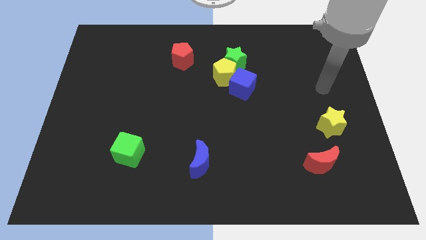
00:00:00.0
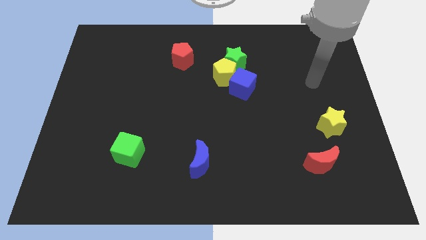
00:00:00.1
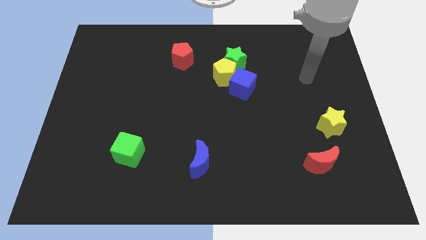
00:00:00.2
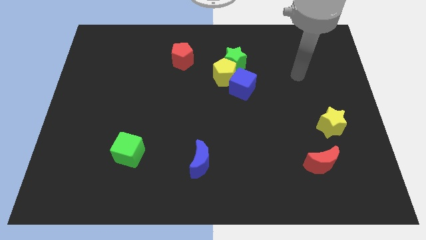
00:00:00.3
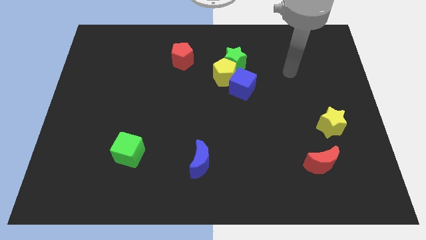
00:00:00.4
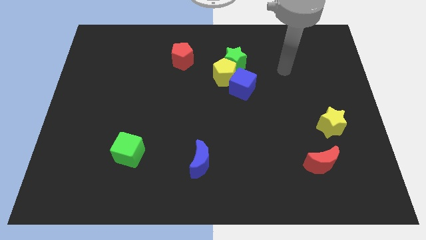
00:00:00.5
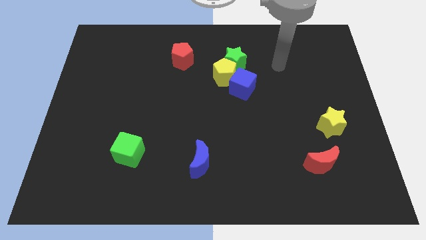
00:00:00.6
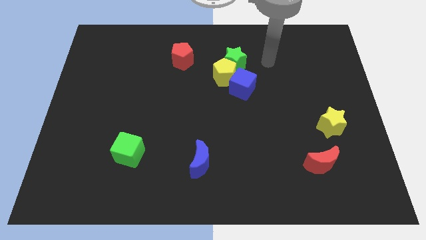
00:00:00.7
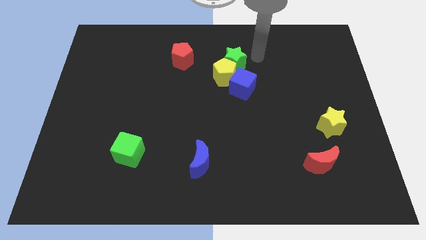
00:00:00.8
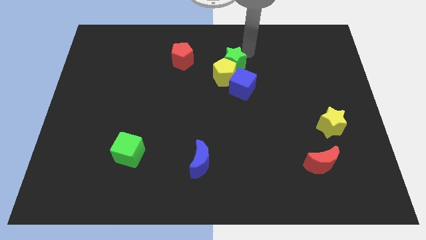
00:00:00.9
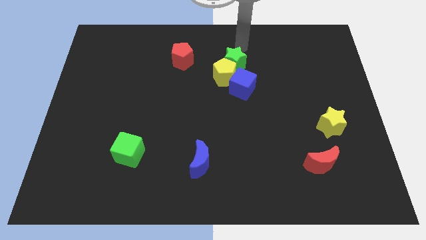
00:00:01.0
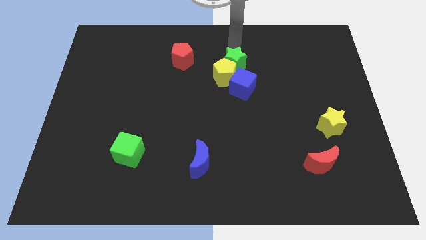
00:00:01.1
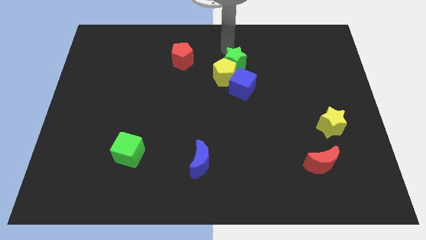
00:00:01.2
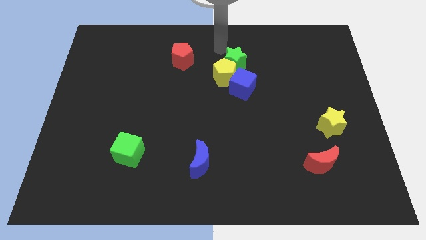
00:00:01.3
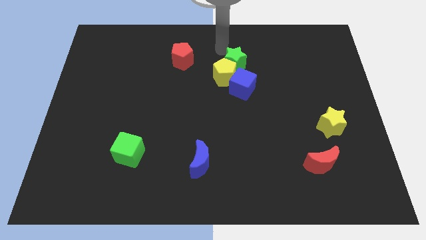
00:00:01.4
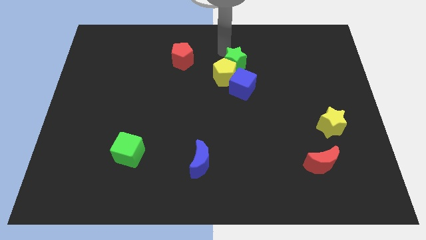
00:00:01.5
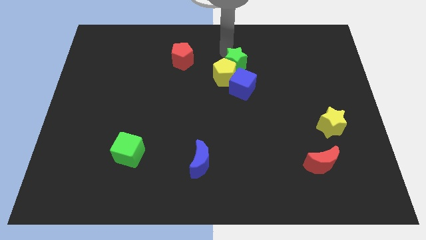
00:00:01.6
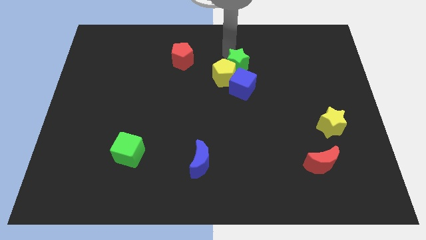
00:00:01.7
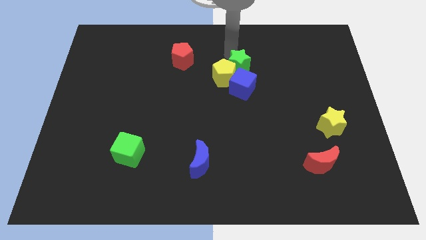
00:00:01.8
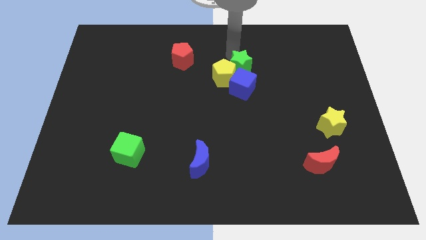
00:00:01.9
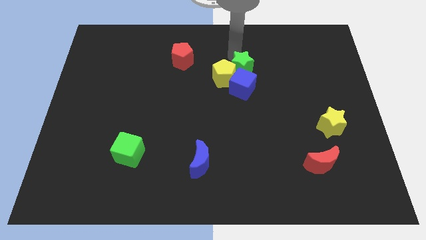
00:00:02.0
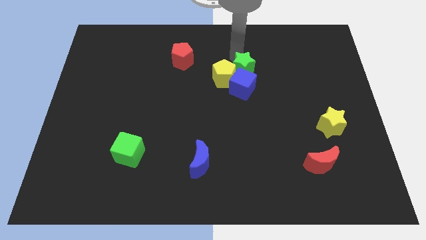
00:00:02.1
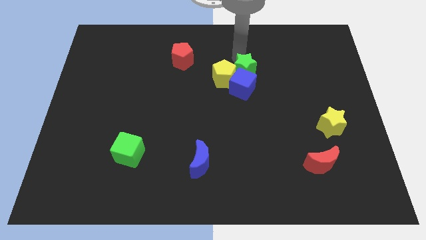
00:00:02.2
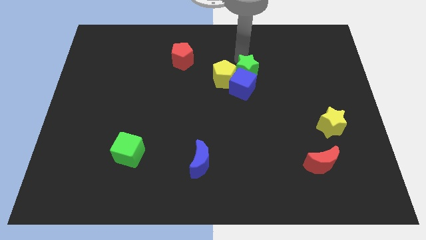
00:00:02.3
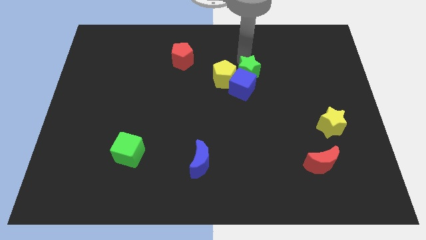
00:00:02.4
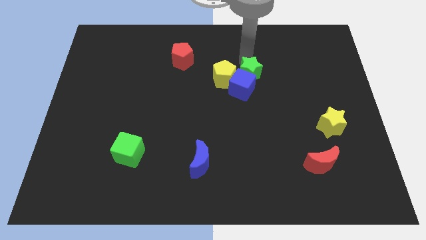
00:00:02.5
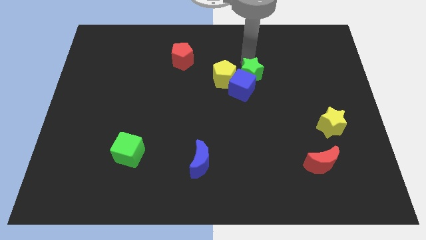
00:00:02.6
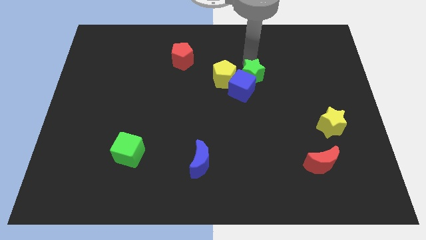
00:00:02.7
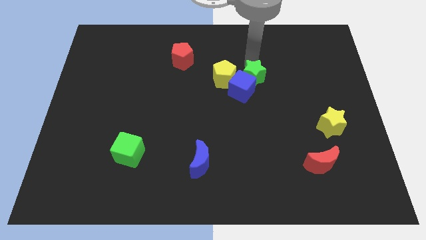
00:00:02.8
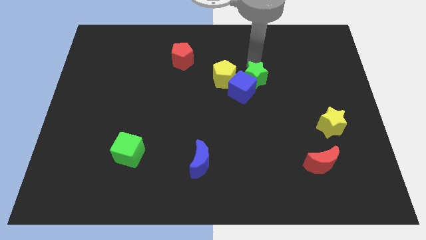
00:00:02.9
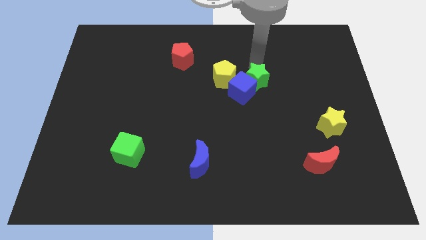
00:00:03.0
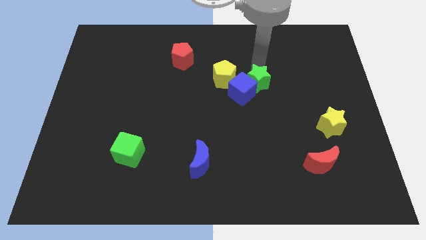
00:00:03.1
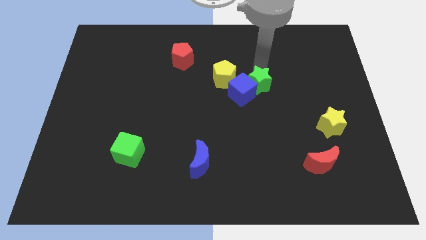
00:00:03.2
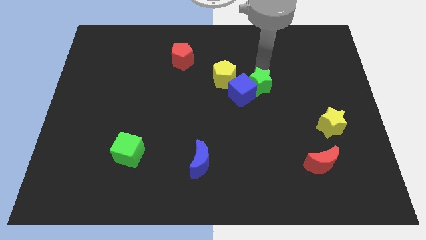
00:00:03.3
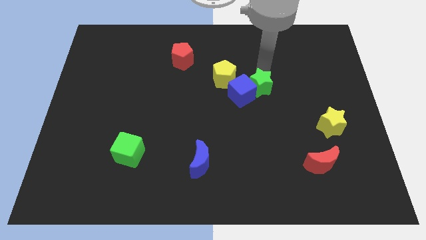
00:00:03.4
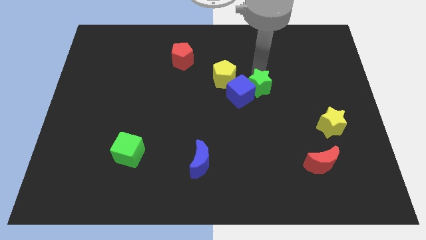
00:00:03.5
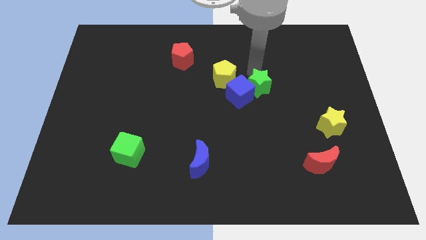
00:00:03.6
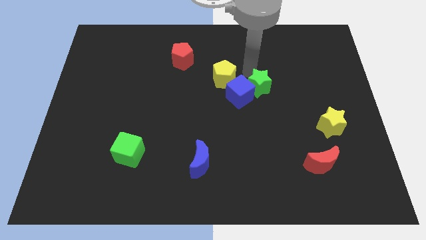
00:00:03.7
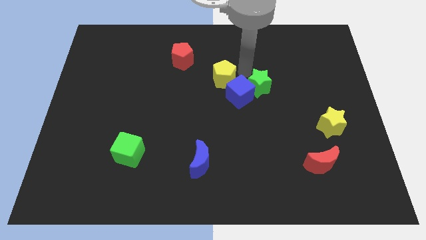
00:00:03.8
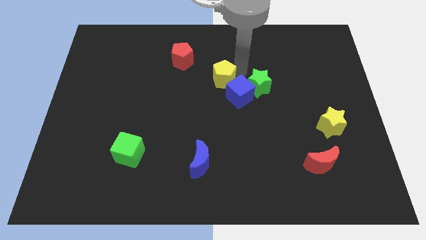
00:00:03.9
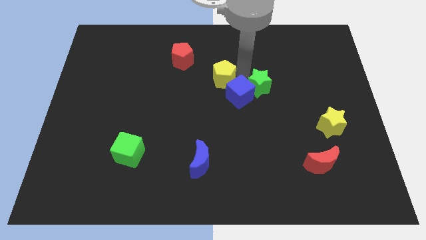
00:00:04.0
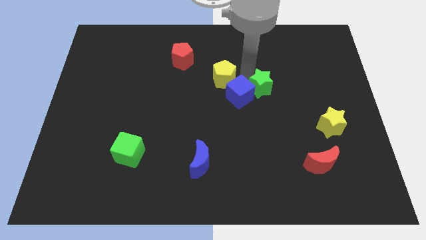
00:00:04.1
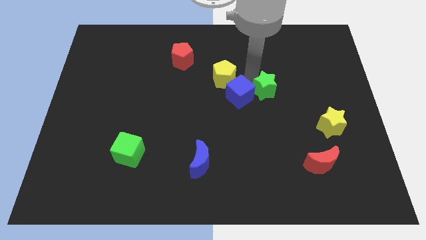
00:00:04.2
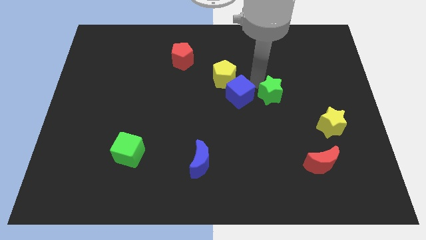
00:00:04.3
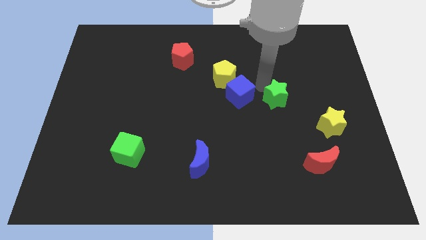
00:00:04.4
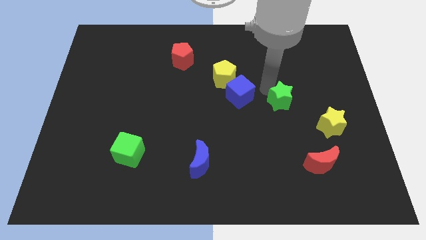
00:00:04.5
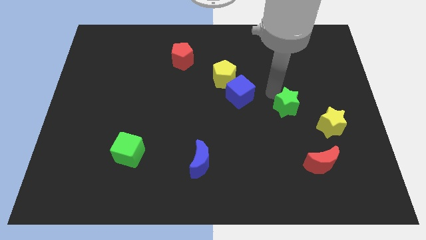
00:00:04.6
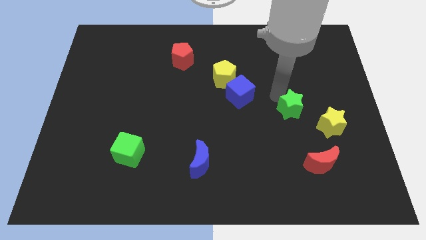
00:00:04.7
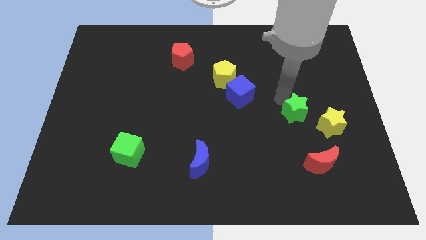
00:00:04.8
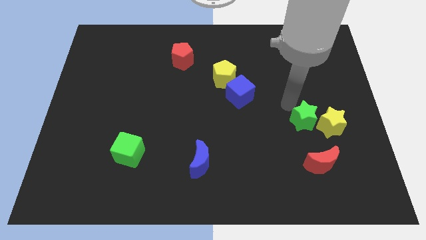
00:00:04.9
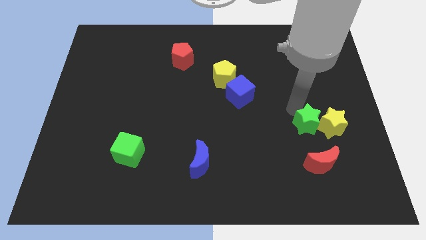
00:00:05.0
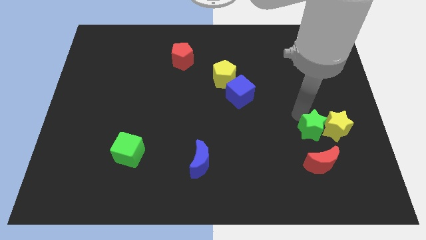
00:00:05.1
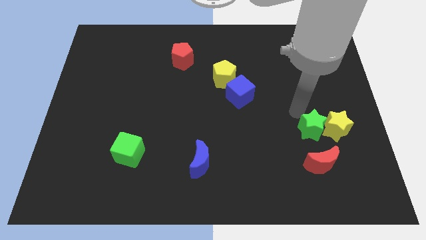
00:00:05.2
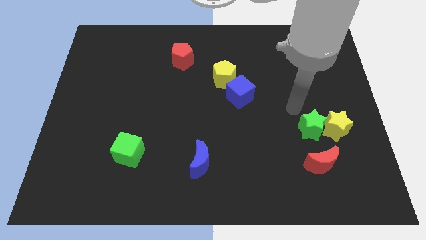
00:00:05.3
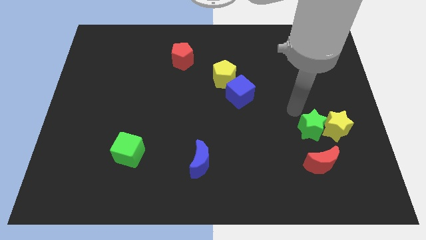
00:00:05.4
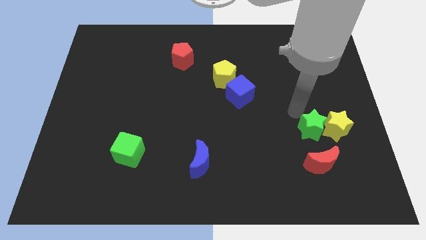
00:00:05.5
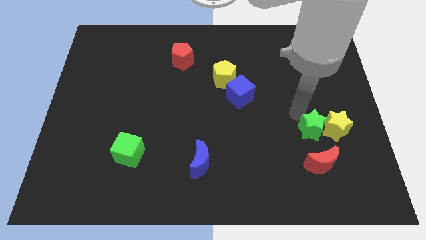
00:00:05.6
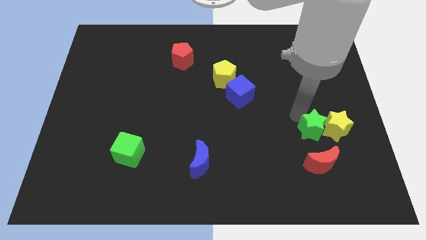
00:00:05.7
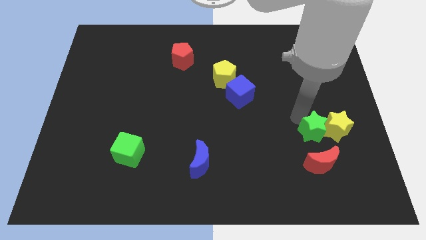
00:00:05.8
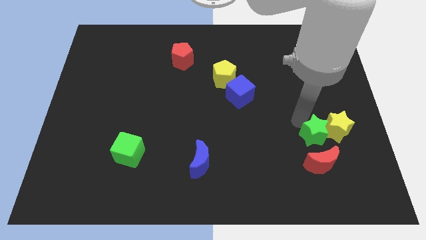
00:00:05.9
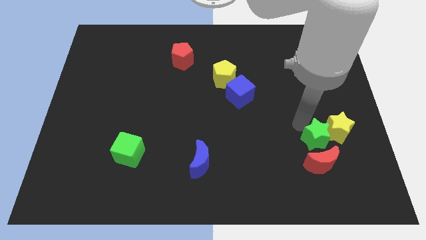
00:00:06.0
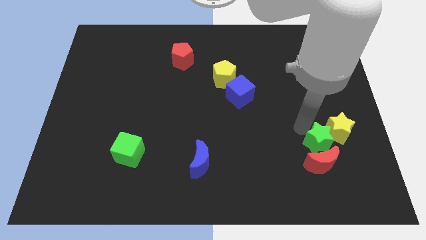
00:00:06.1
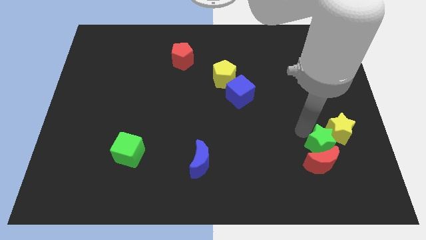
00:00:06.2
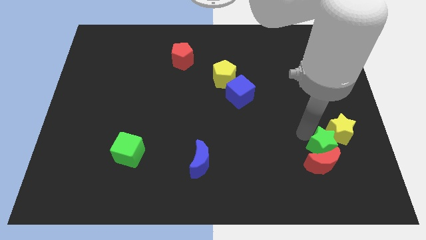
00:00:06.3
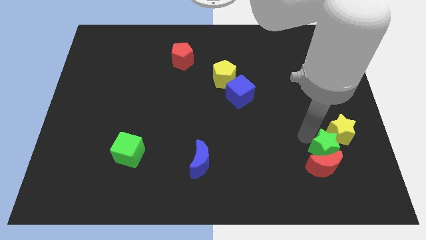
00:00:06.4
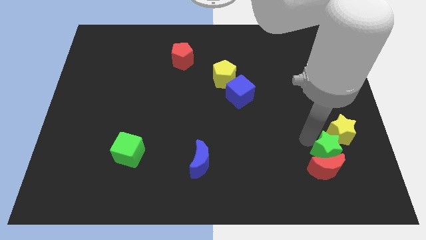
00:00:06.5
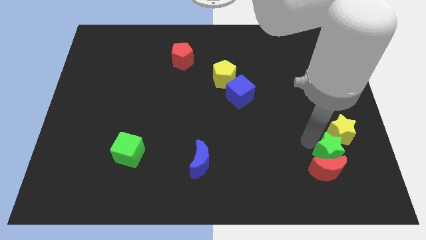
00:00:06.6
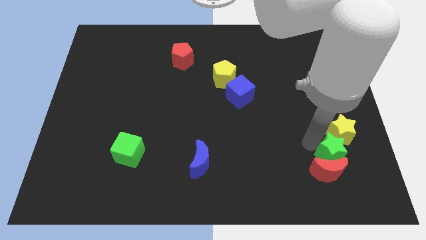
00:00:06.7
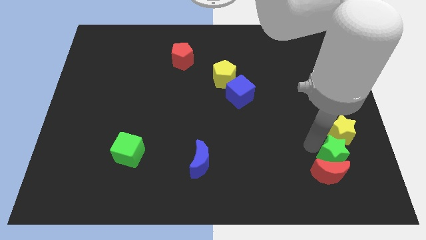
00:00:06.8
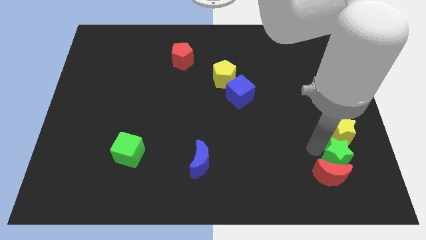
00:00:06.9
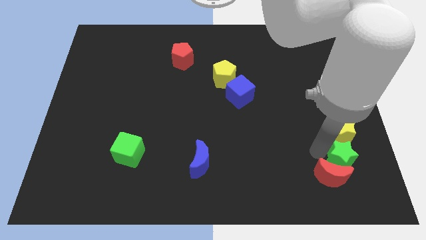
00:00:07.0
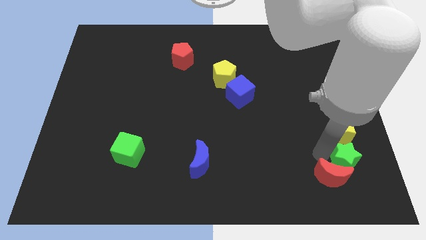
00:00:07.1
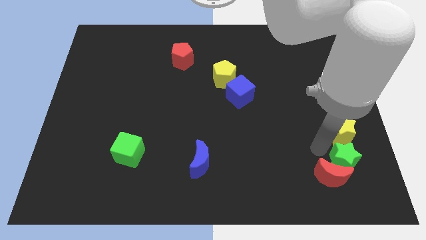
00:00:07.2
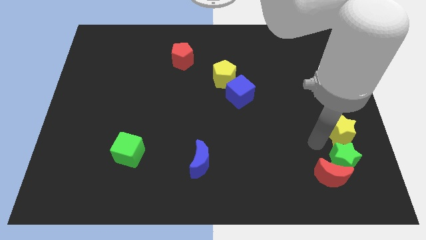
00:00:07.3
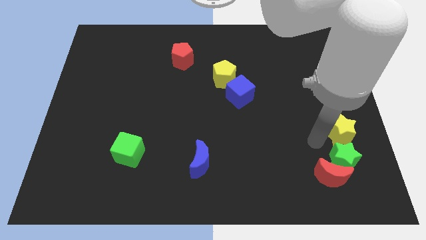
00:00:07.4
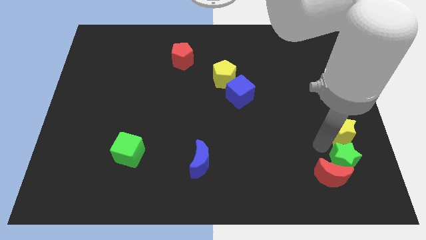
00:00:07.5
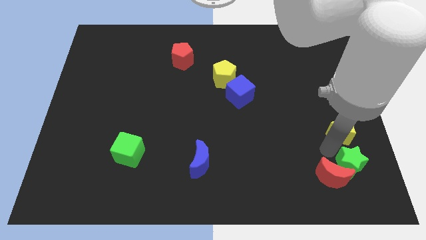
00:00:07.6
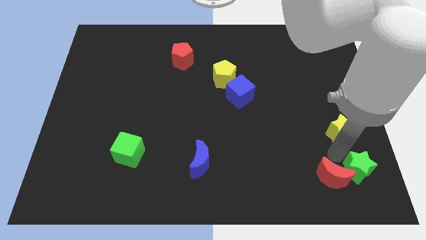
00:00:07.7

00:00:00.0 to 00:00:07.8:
slide the green star to the bottom right of the board
